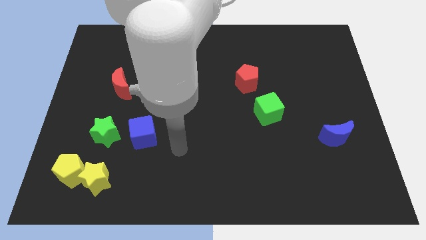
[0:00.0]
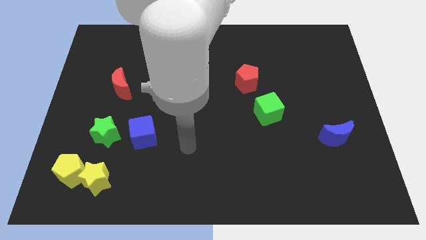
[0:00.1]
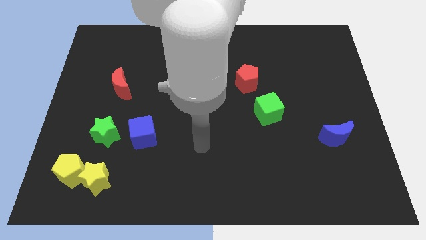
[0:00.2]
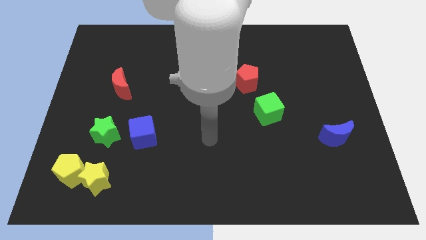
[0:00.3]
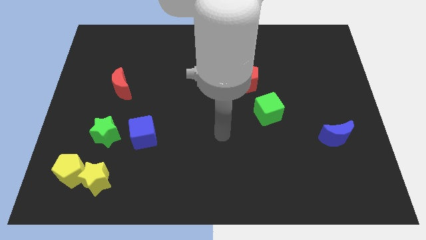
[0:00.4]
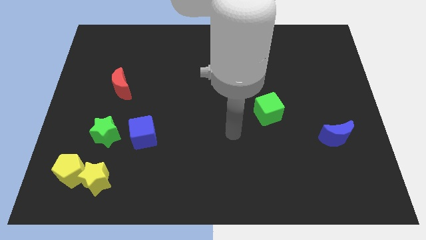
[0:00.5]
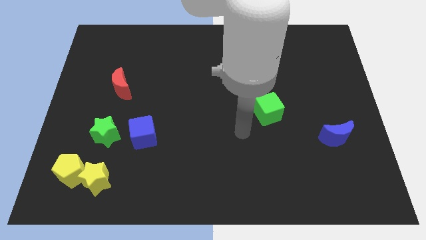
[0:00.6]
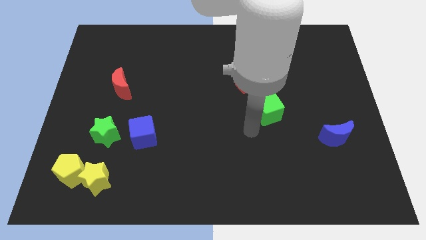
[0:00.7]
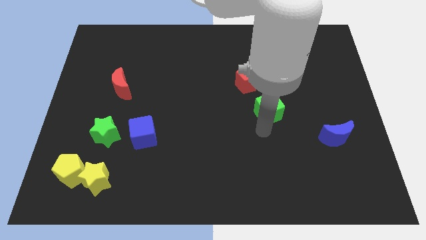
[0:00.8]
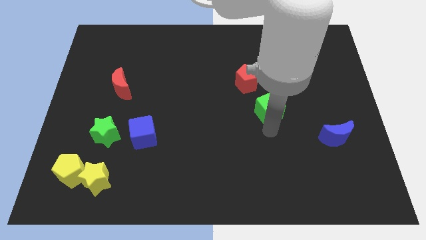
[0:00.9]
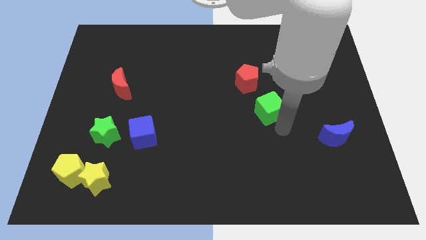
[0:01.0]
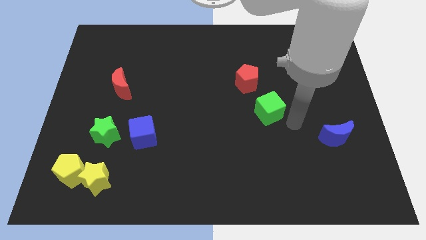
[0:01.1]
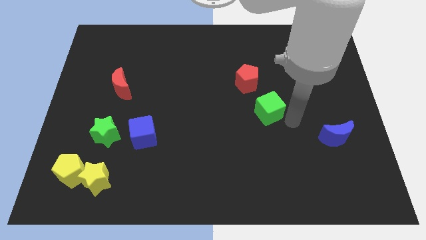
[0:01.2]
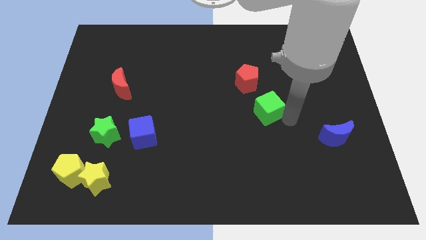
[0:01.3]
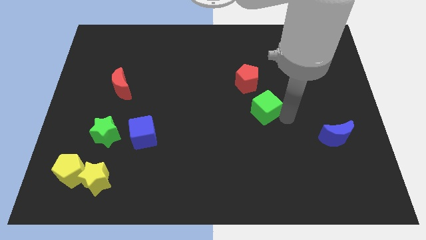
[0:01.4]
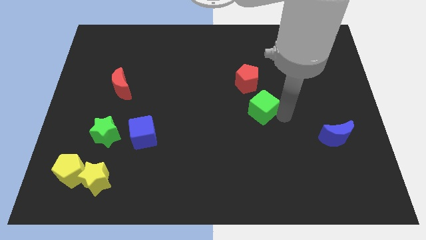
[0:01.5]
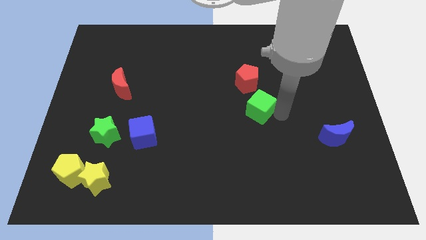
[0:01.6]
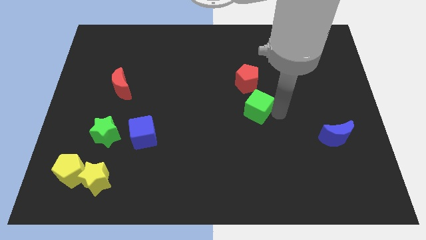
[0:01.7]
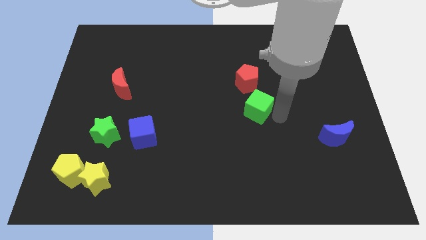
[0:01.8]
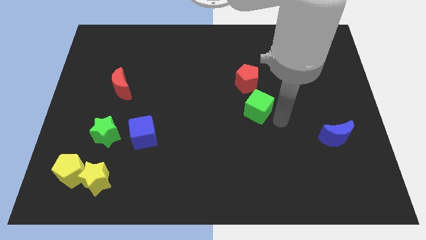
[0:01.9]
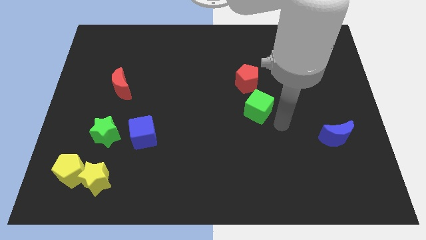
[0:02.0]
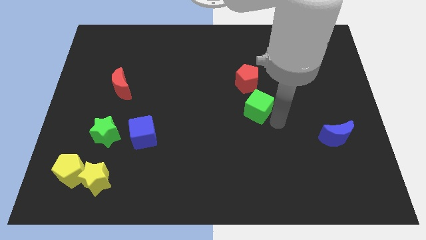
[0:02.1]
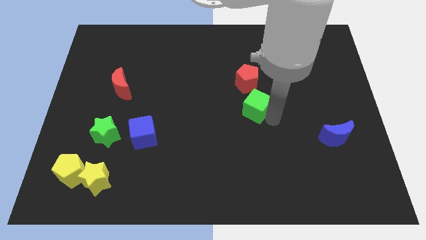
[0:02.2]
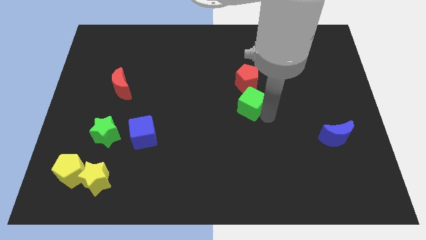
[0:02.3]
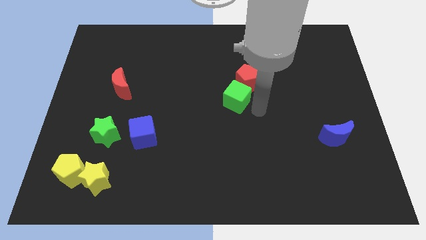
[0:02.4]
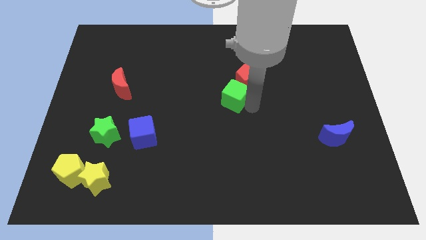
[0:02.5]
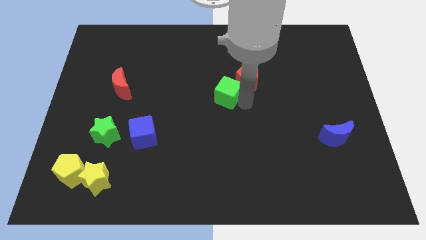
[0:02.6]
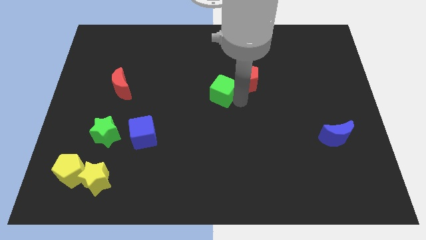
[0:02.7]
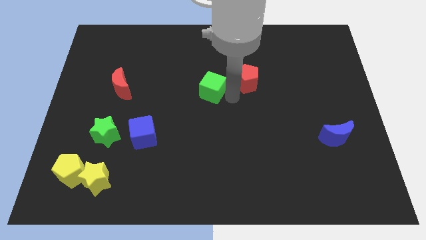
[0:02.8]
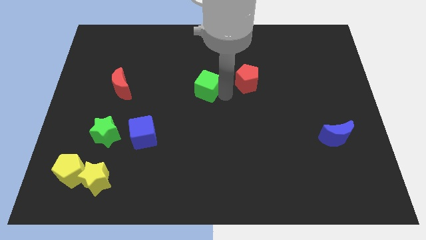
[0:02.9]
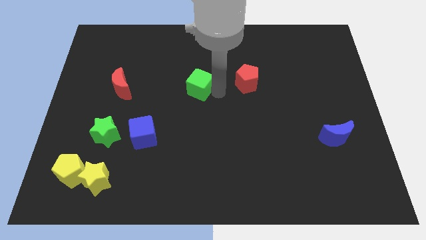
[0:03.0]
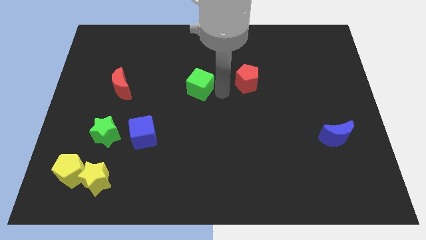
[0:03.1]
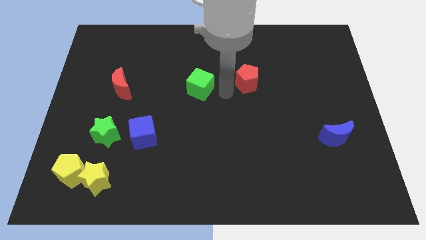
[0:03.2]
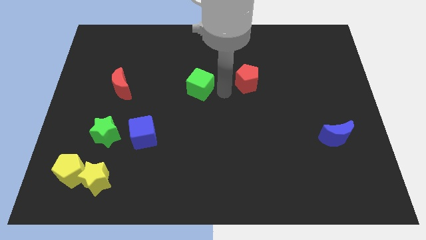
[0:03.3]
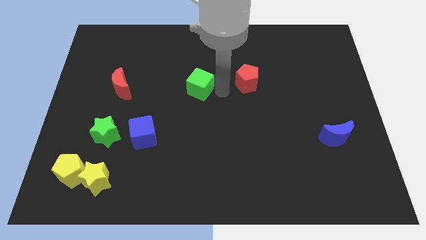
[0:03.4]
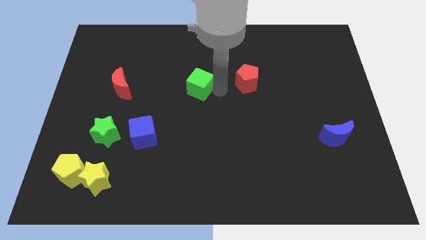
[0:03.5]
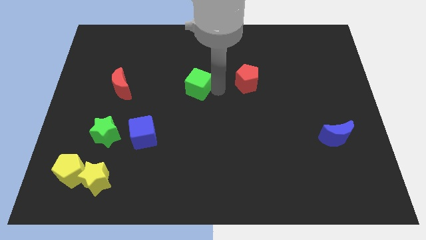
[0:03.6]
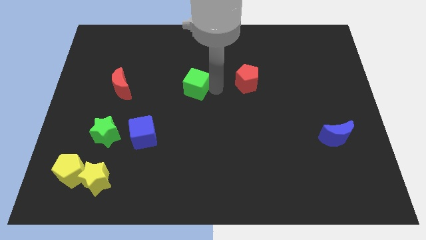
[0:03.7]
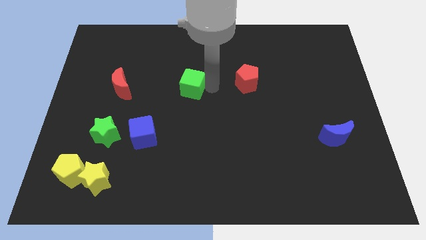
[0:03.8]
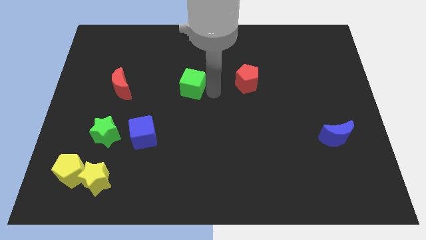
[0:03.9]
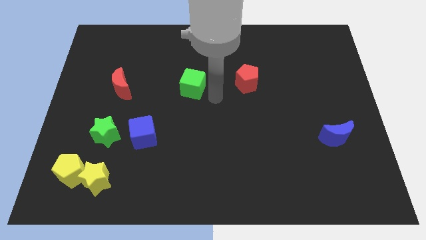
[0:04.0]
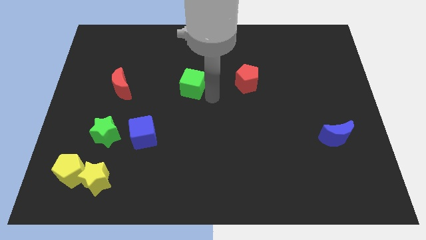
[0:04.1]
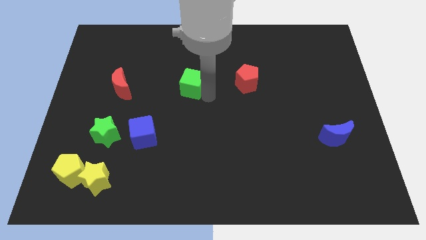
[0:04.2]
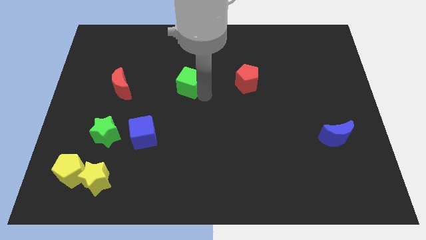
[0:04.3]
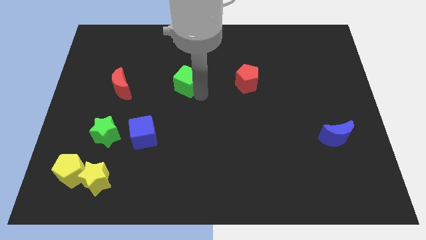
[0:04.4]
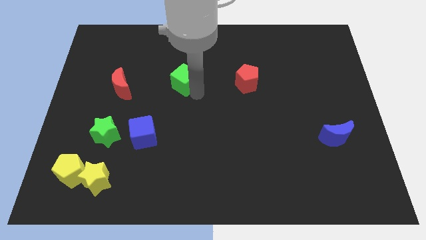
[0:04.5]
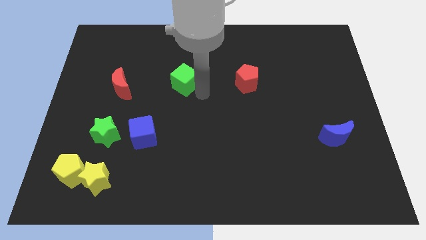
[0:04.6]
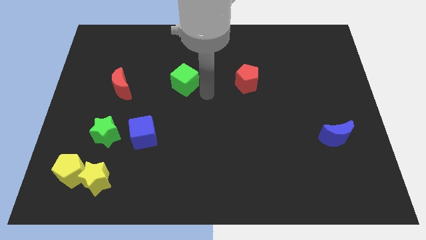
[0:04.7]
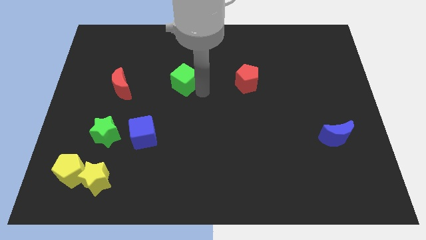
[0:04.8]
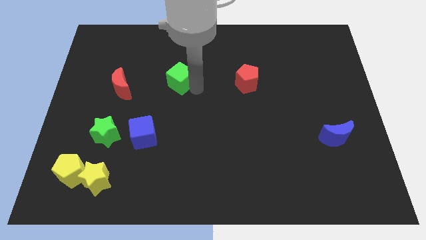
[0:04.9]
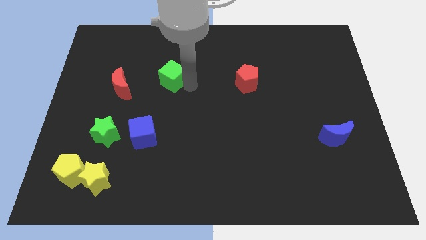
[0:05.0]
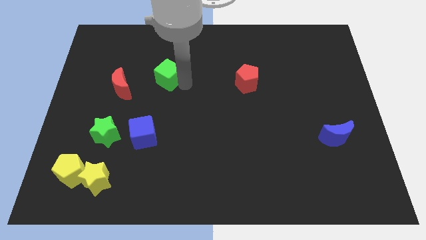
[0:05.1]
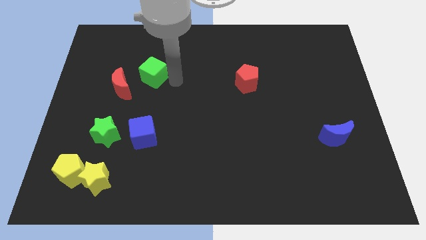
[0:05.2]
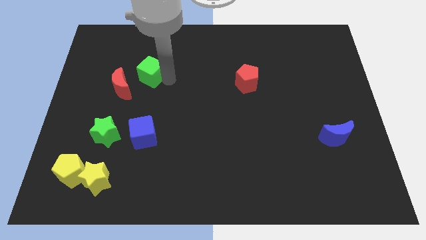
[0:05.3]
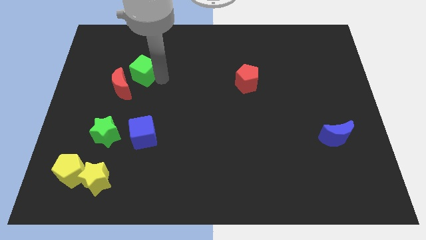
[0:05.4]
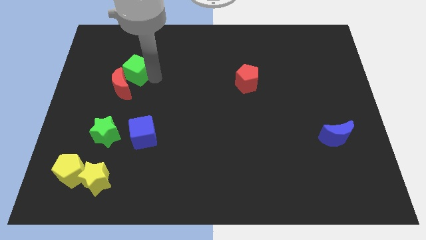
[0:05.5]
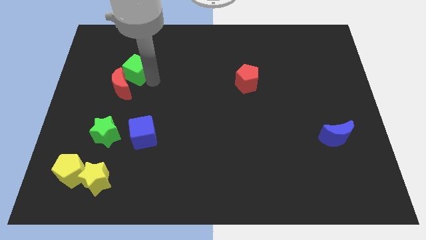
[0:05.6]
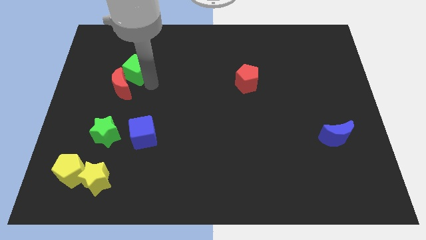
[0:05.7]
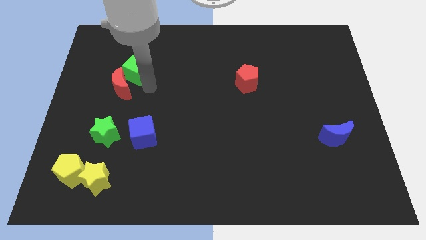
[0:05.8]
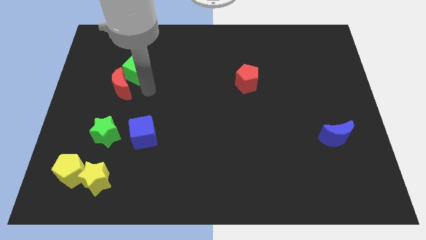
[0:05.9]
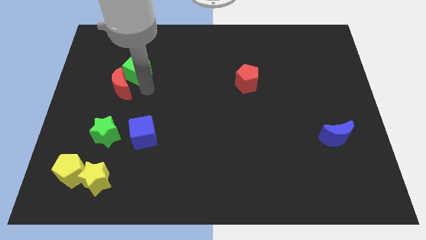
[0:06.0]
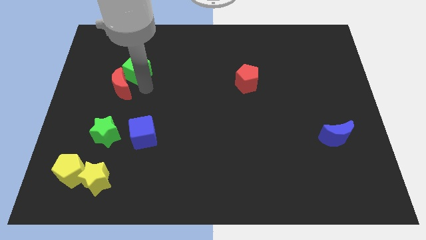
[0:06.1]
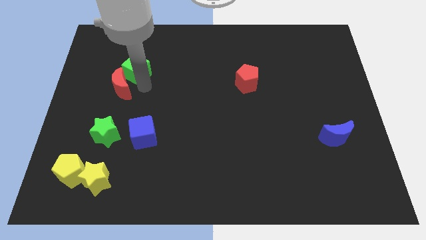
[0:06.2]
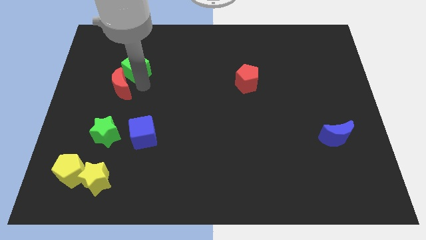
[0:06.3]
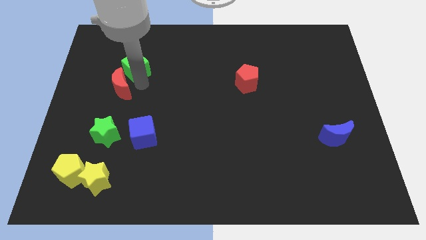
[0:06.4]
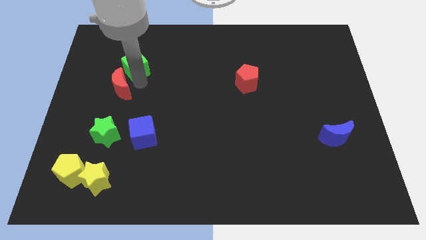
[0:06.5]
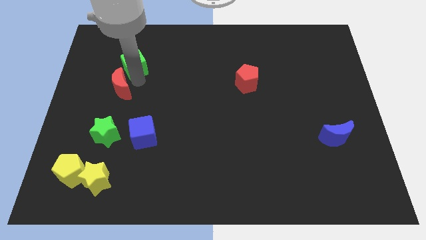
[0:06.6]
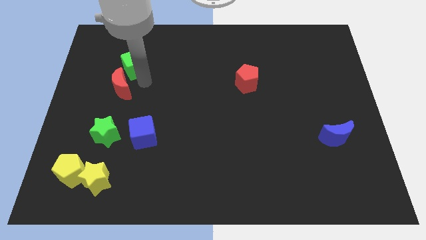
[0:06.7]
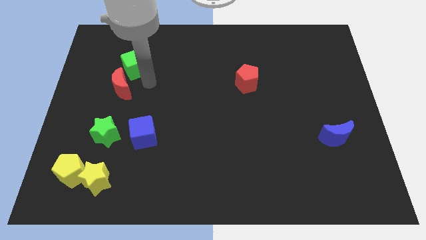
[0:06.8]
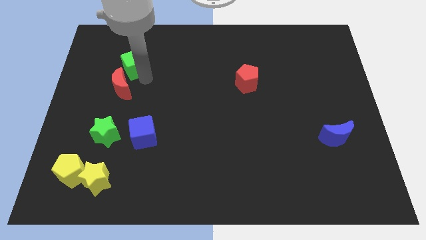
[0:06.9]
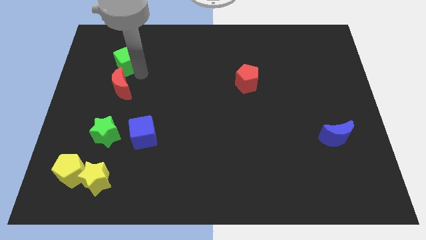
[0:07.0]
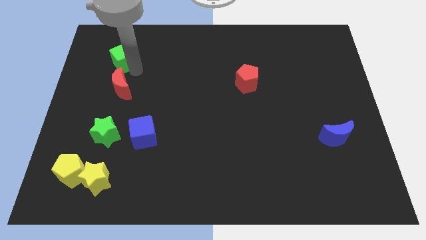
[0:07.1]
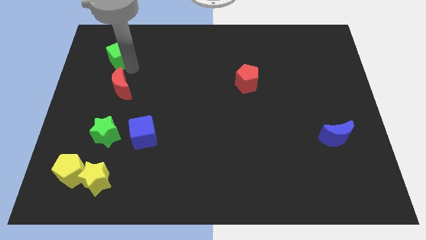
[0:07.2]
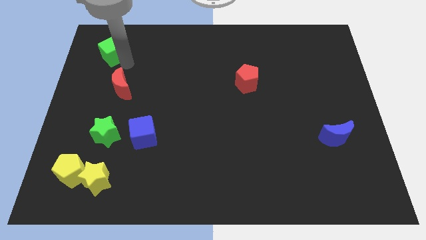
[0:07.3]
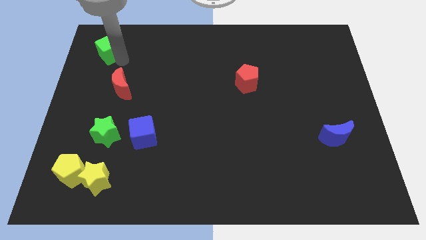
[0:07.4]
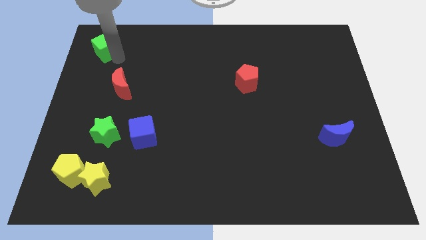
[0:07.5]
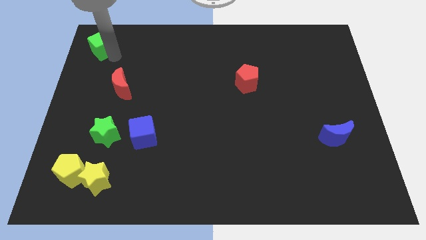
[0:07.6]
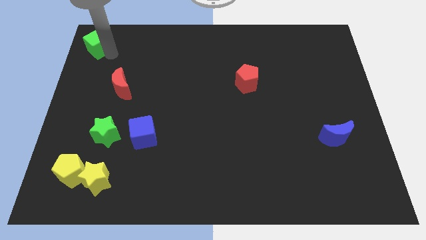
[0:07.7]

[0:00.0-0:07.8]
push the green cube to the top left corner
